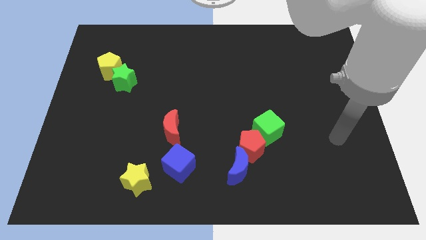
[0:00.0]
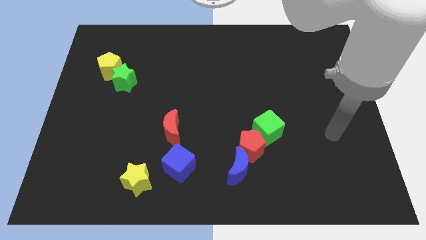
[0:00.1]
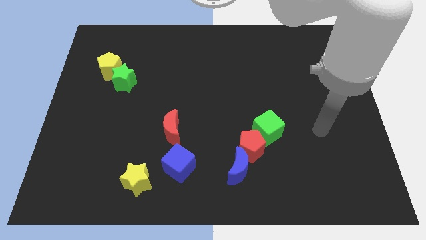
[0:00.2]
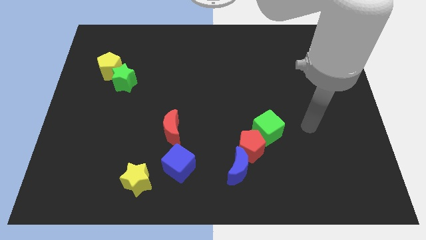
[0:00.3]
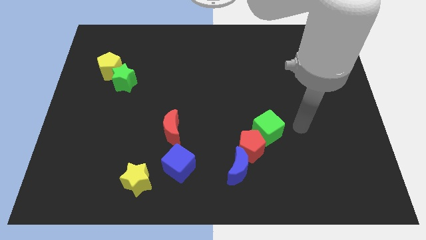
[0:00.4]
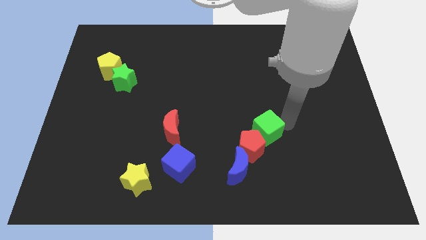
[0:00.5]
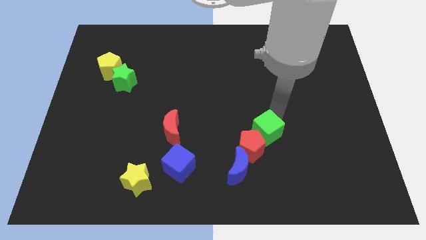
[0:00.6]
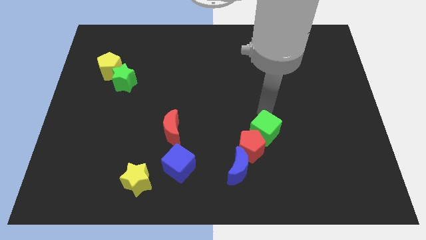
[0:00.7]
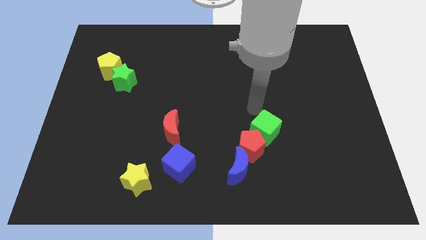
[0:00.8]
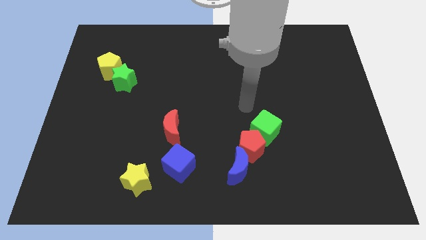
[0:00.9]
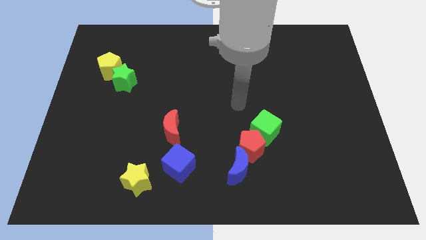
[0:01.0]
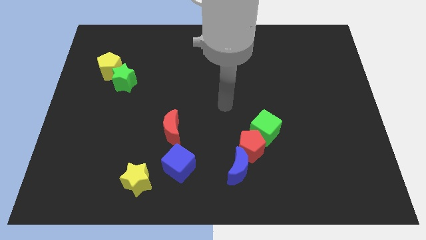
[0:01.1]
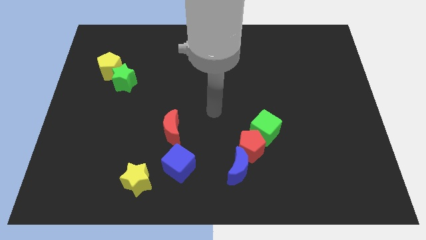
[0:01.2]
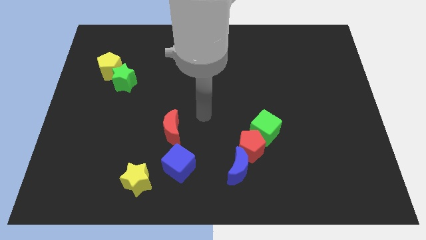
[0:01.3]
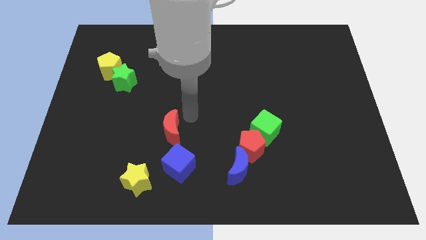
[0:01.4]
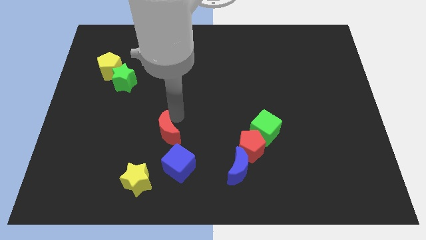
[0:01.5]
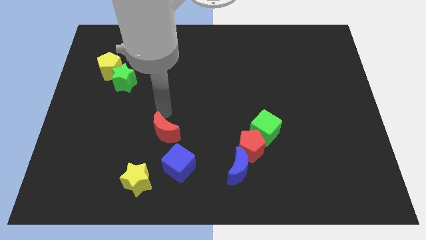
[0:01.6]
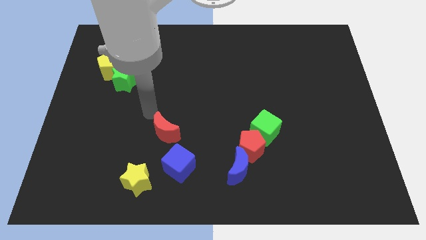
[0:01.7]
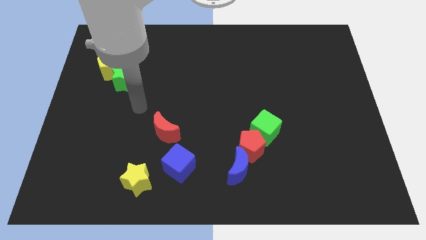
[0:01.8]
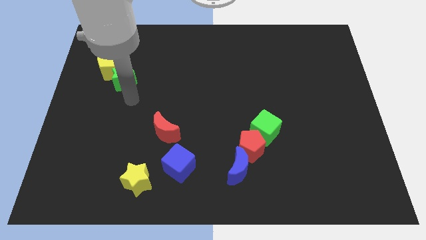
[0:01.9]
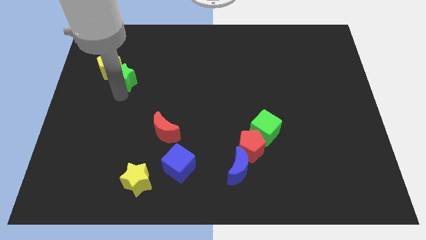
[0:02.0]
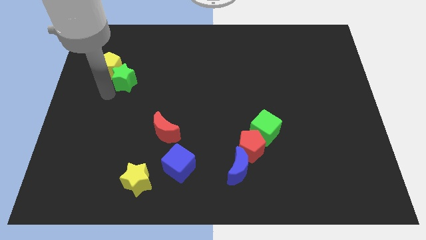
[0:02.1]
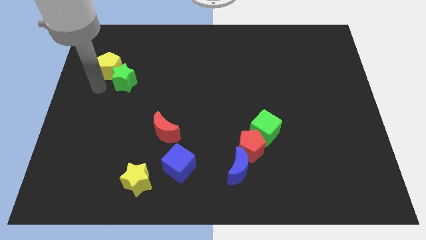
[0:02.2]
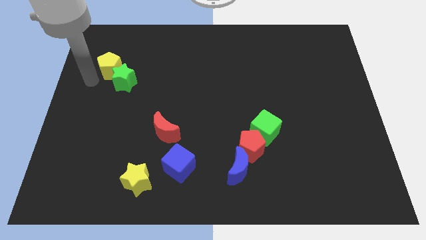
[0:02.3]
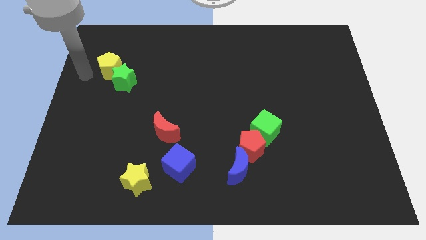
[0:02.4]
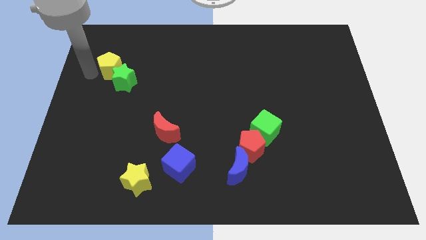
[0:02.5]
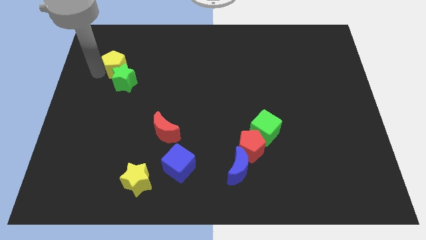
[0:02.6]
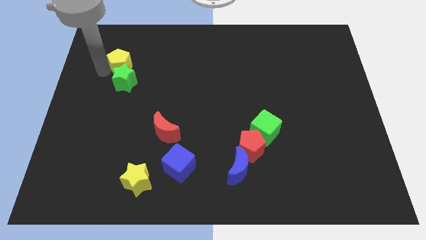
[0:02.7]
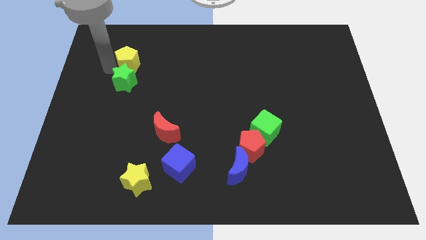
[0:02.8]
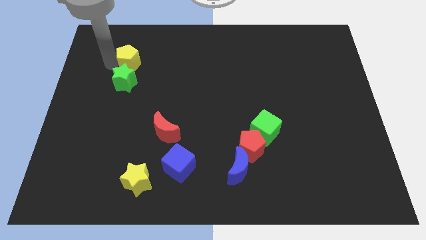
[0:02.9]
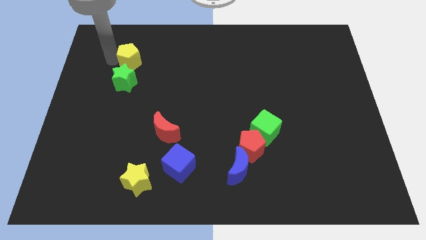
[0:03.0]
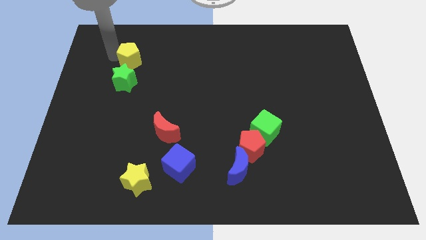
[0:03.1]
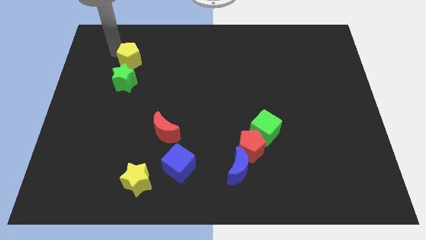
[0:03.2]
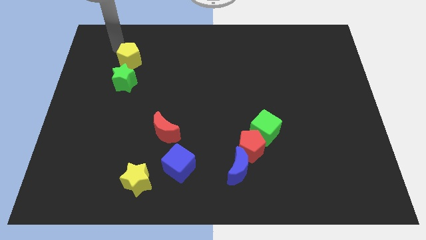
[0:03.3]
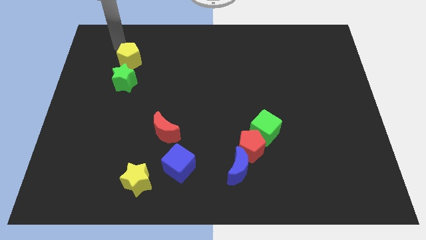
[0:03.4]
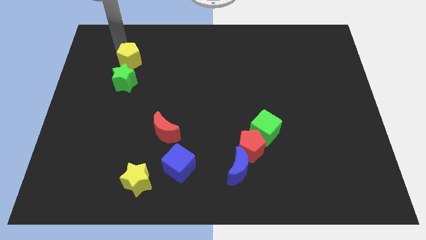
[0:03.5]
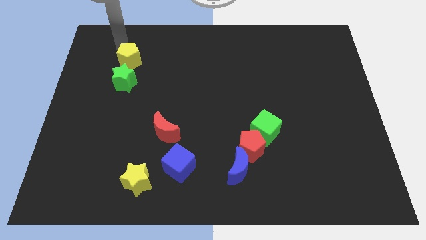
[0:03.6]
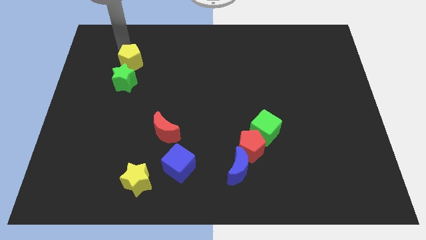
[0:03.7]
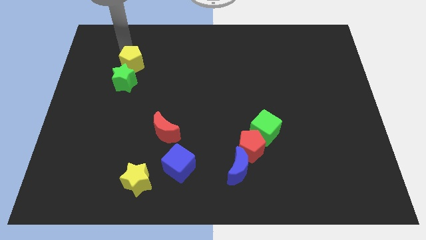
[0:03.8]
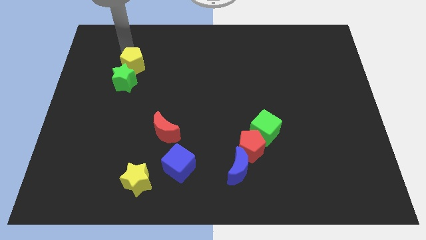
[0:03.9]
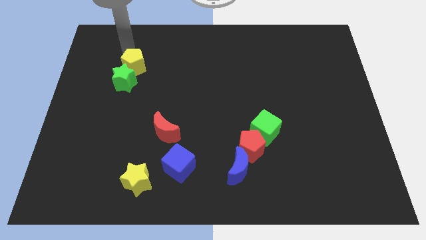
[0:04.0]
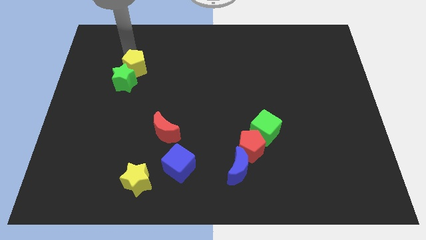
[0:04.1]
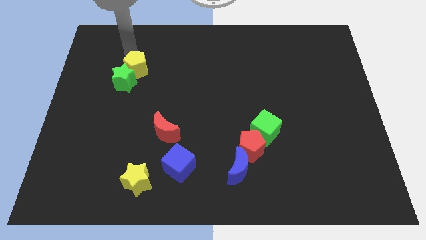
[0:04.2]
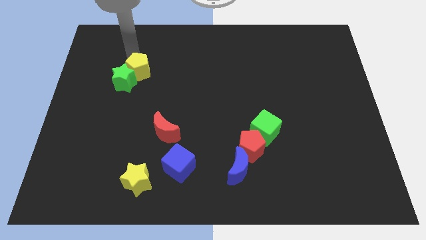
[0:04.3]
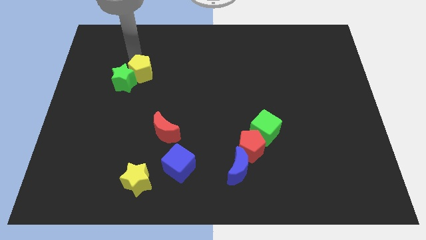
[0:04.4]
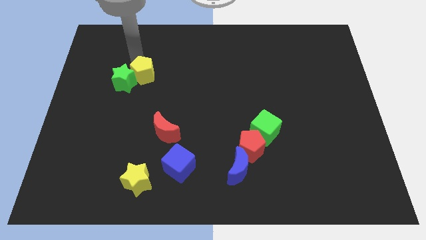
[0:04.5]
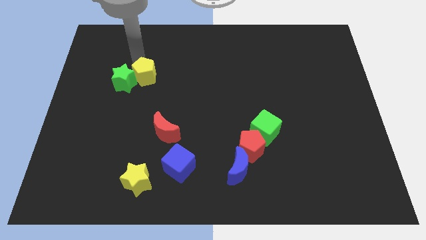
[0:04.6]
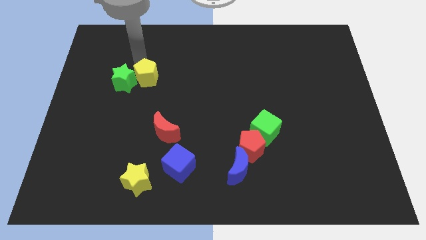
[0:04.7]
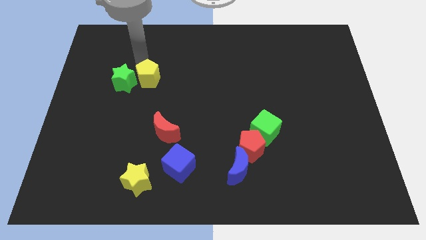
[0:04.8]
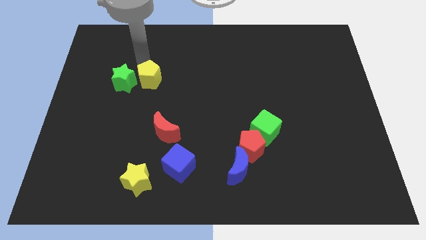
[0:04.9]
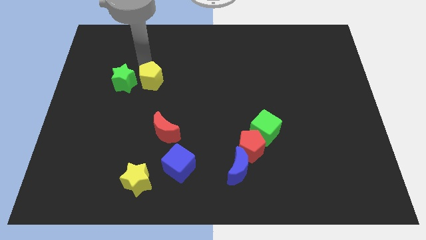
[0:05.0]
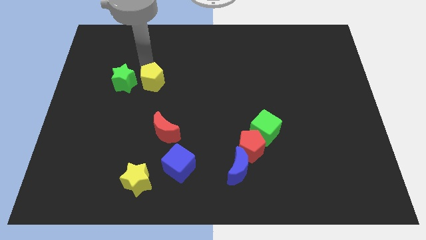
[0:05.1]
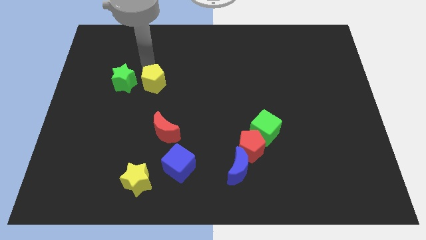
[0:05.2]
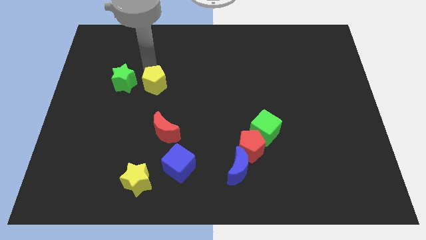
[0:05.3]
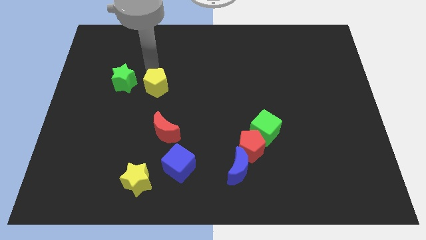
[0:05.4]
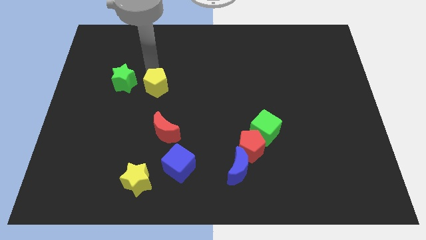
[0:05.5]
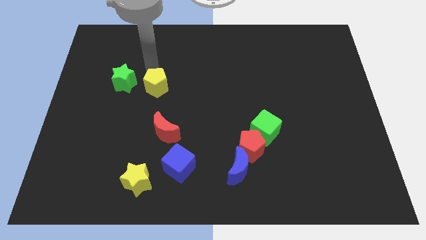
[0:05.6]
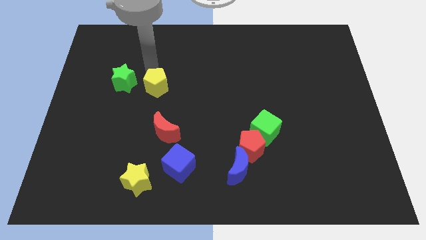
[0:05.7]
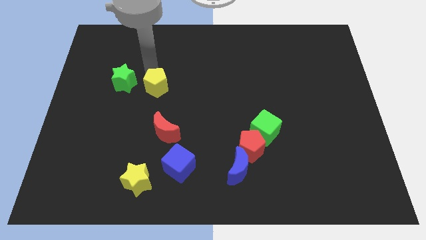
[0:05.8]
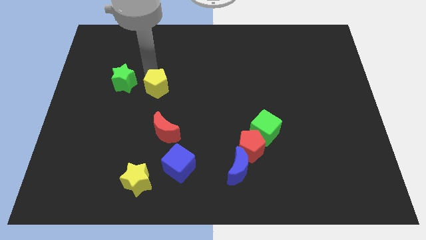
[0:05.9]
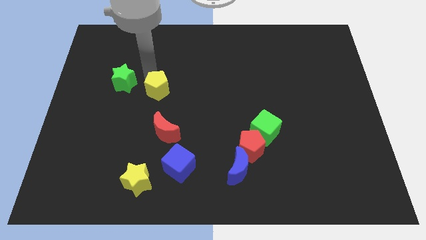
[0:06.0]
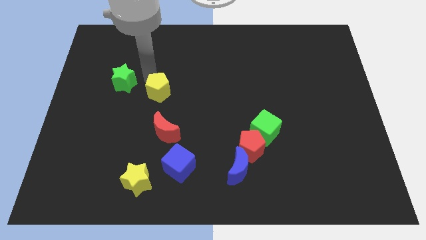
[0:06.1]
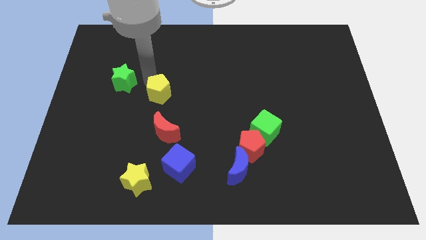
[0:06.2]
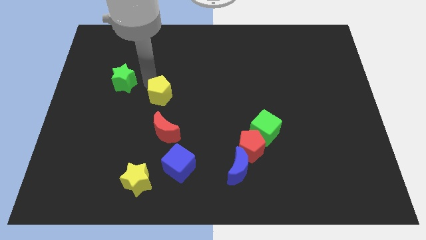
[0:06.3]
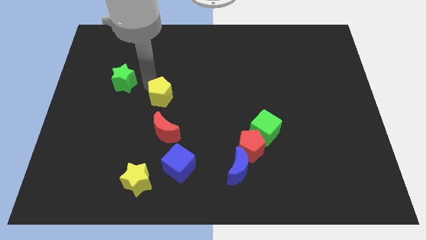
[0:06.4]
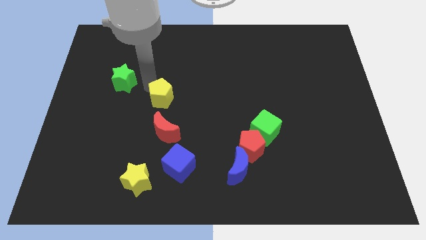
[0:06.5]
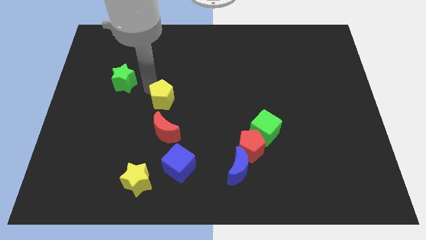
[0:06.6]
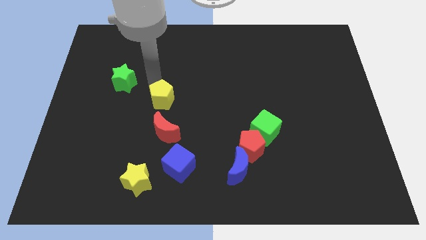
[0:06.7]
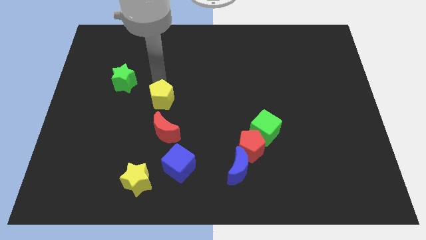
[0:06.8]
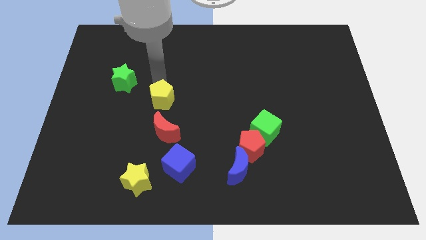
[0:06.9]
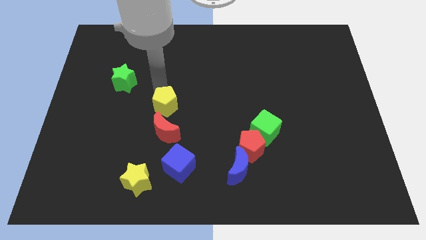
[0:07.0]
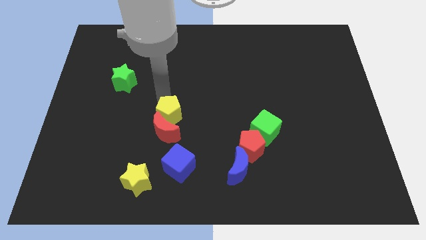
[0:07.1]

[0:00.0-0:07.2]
slide the yellow pentagon towards the red moon
